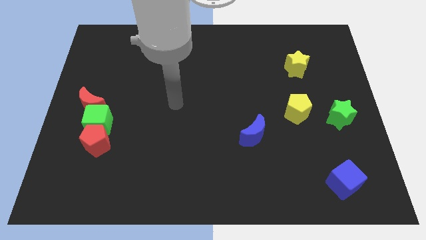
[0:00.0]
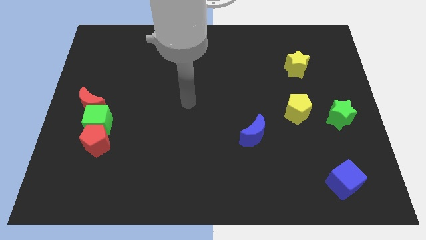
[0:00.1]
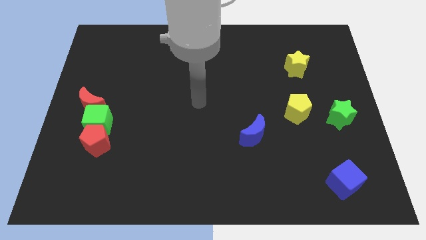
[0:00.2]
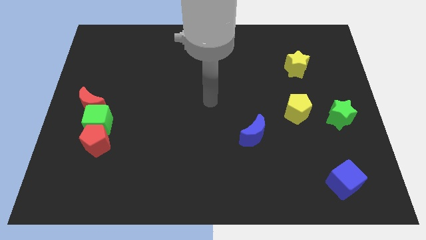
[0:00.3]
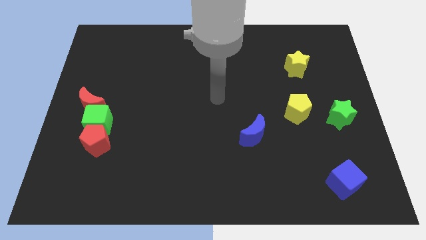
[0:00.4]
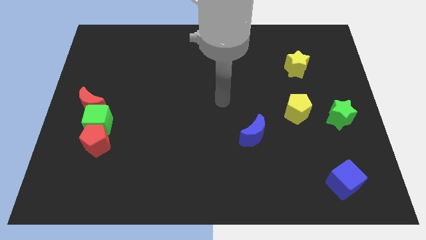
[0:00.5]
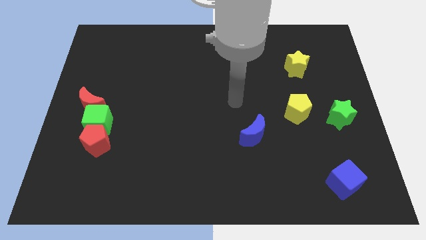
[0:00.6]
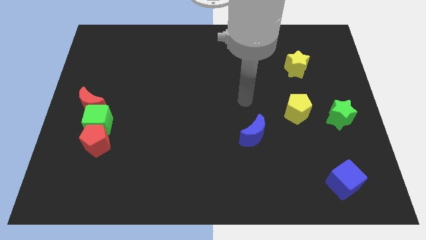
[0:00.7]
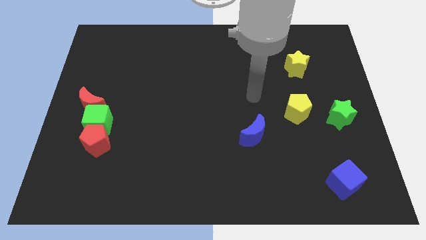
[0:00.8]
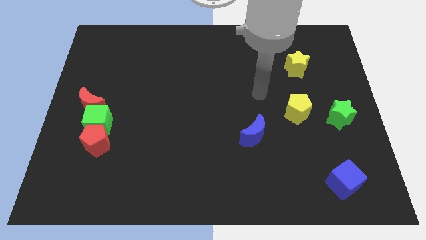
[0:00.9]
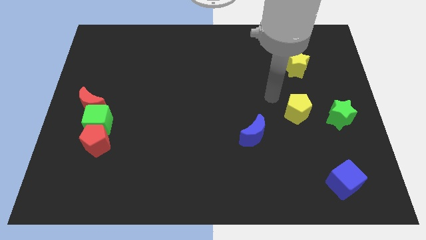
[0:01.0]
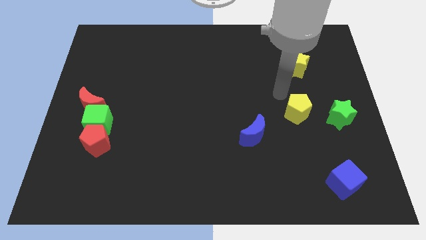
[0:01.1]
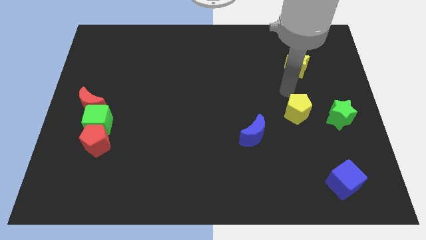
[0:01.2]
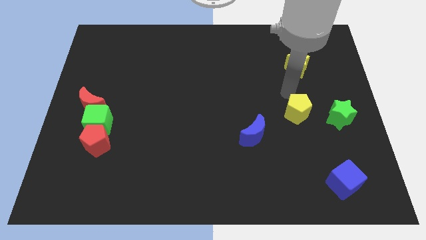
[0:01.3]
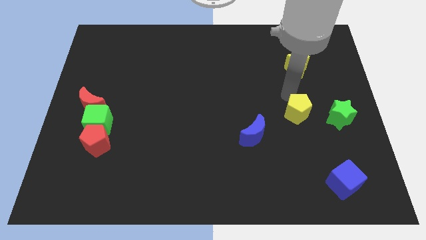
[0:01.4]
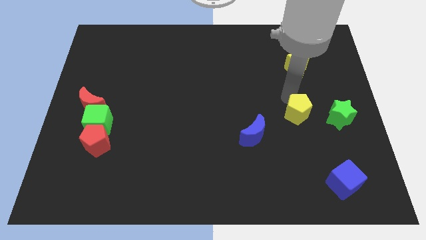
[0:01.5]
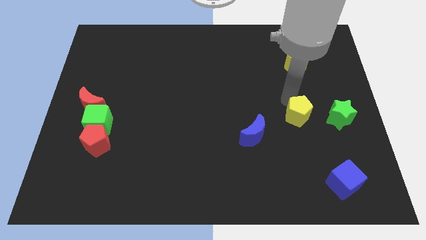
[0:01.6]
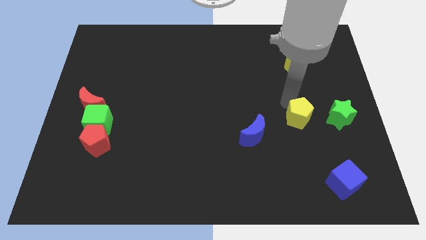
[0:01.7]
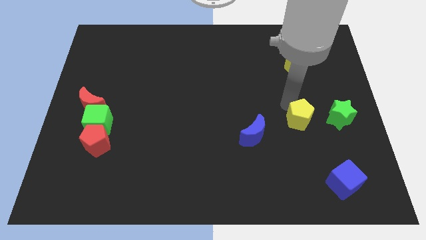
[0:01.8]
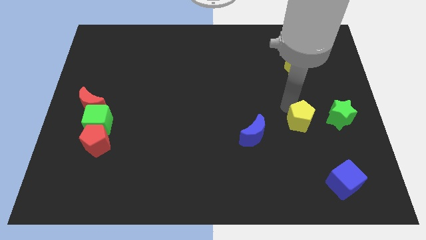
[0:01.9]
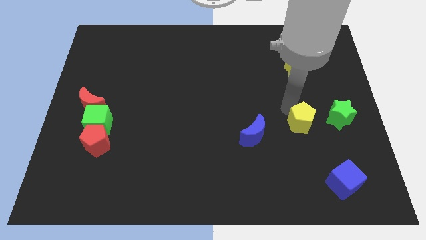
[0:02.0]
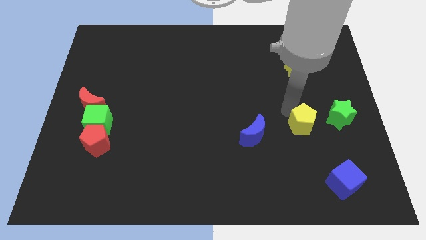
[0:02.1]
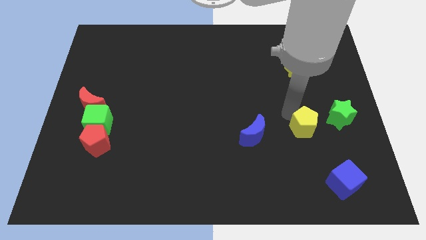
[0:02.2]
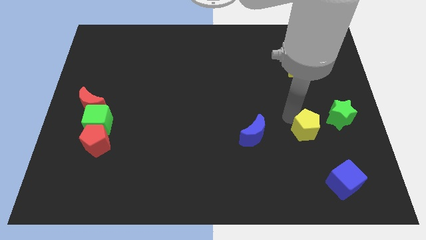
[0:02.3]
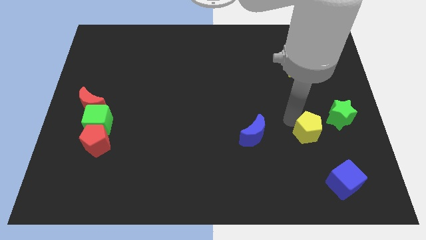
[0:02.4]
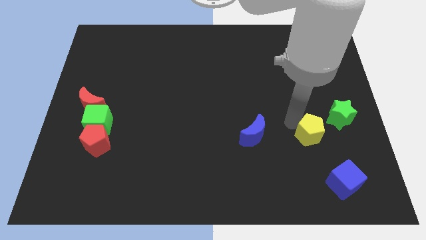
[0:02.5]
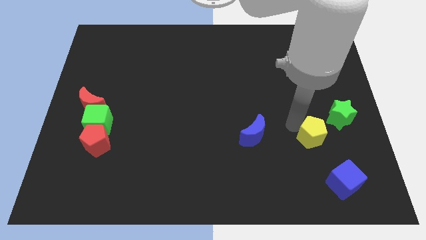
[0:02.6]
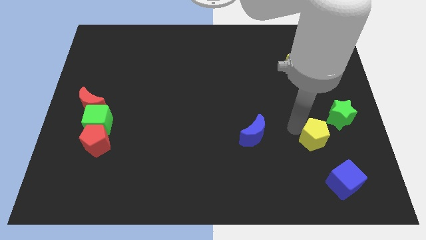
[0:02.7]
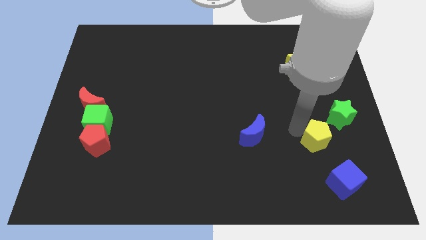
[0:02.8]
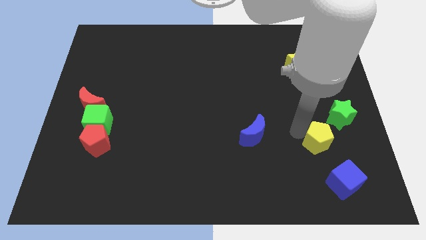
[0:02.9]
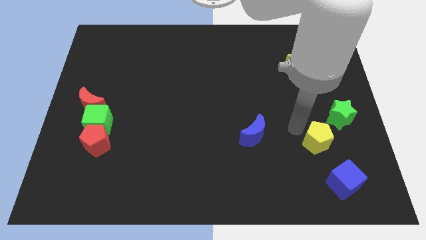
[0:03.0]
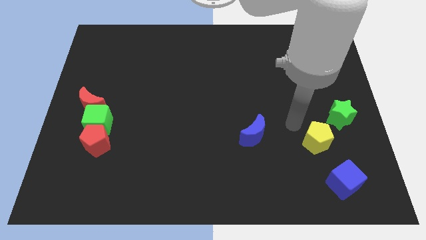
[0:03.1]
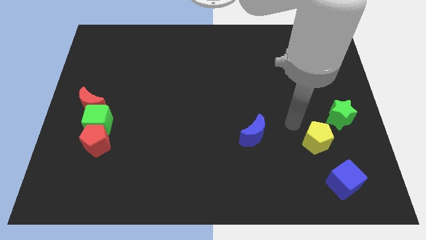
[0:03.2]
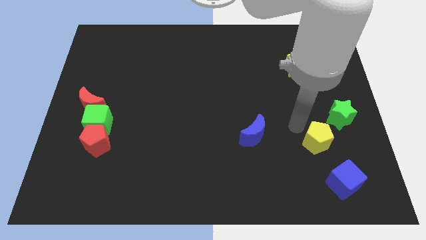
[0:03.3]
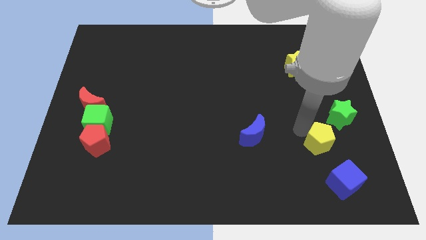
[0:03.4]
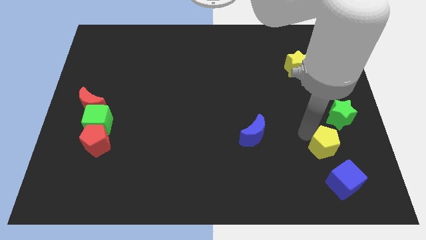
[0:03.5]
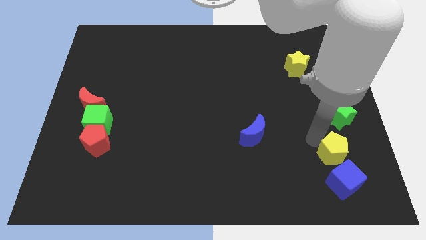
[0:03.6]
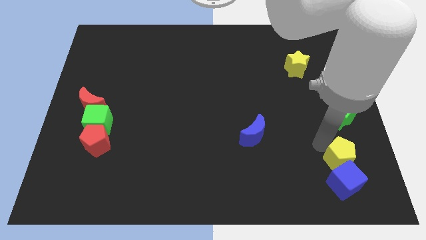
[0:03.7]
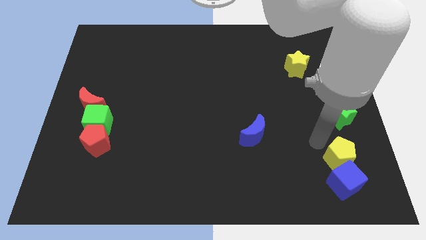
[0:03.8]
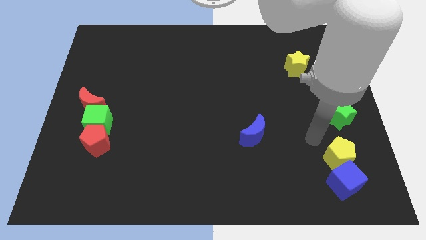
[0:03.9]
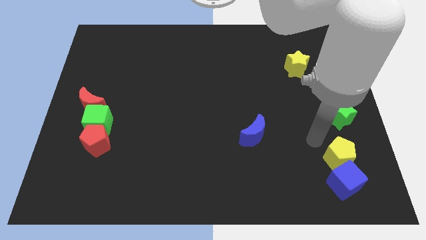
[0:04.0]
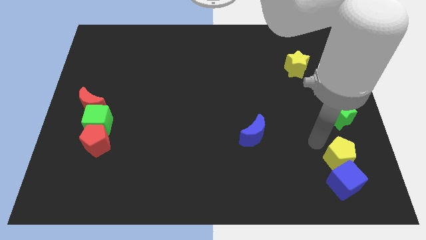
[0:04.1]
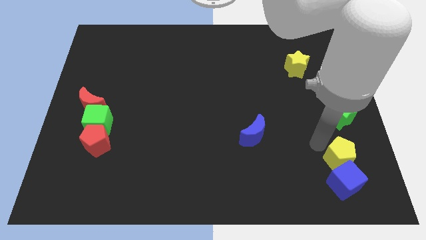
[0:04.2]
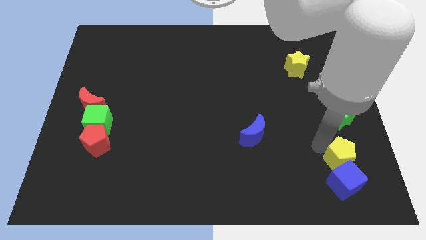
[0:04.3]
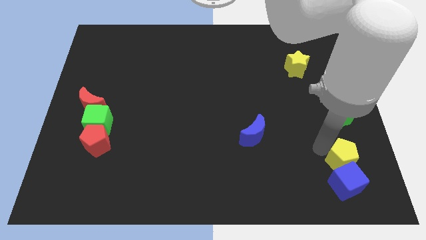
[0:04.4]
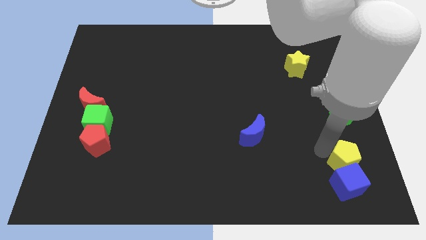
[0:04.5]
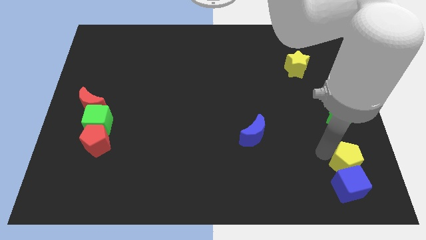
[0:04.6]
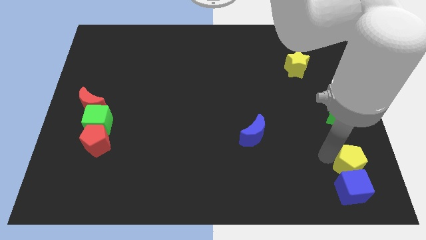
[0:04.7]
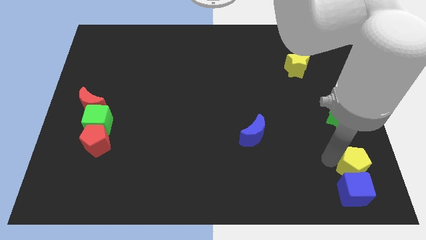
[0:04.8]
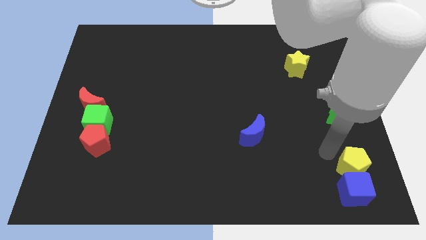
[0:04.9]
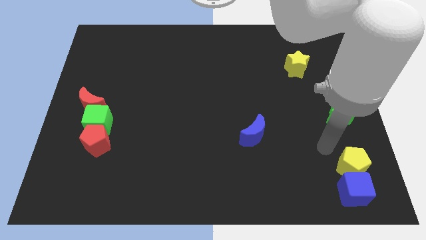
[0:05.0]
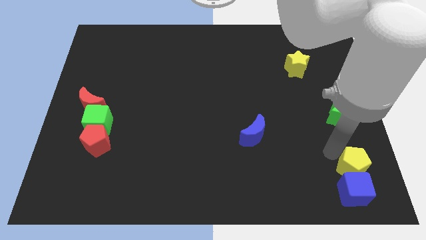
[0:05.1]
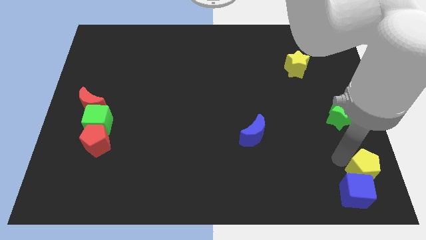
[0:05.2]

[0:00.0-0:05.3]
slide the yellow pentagon to the lower right corner
